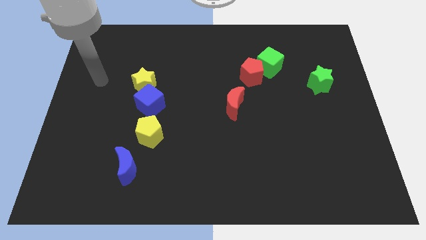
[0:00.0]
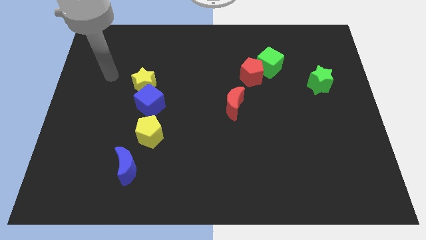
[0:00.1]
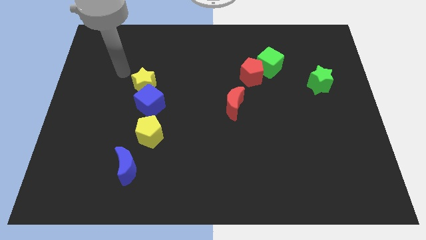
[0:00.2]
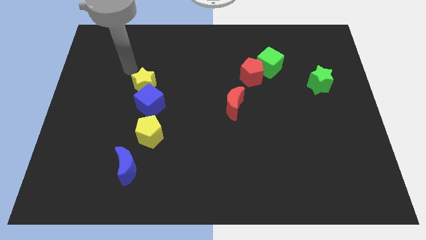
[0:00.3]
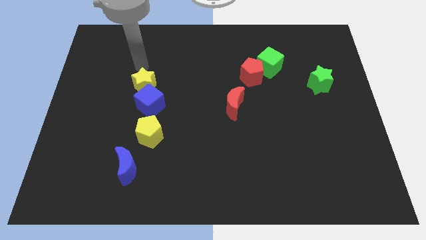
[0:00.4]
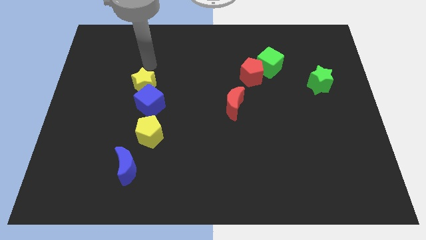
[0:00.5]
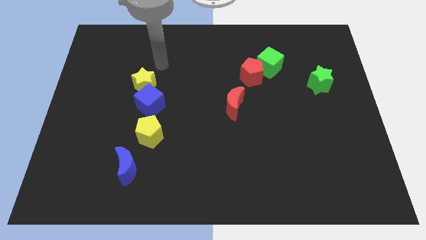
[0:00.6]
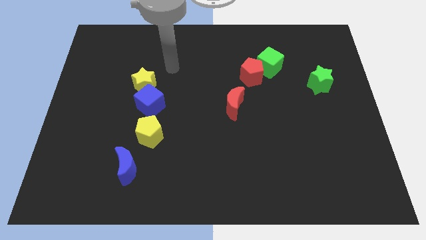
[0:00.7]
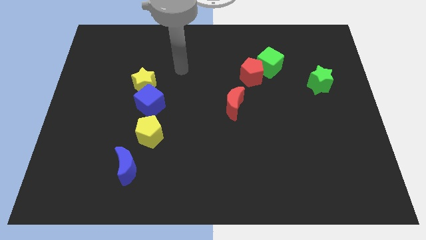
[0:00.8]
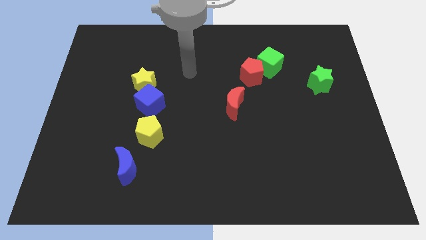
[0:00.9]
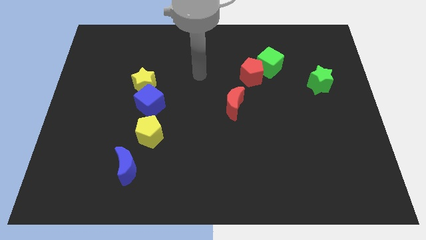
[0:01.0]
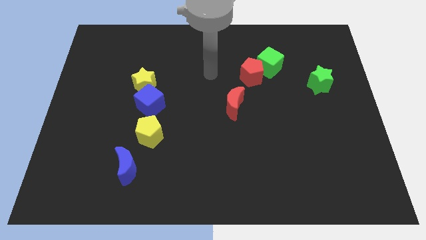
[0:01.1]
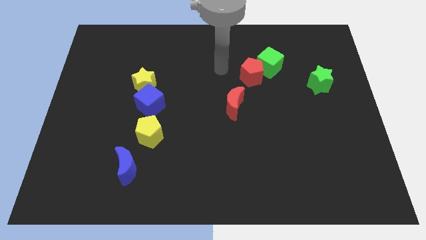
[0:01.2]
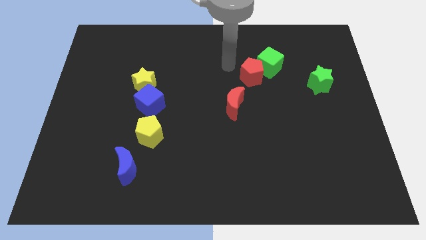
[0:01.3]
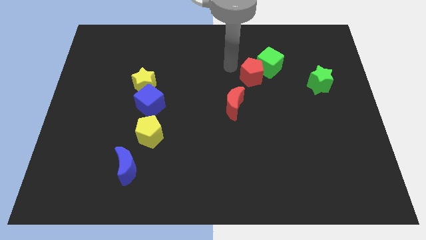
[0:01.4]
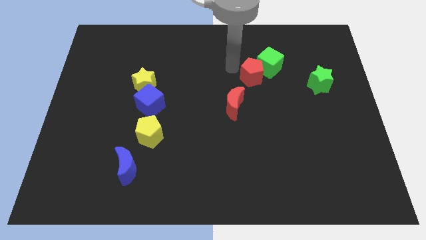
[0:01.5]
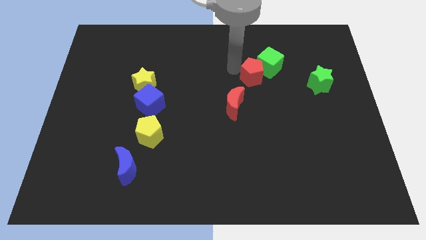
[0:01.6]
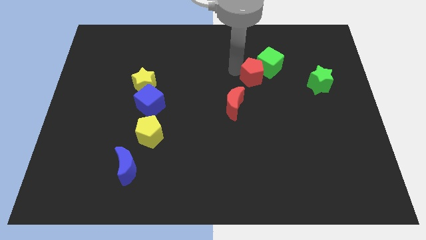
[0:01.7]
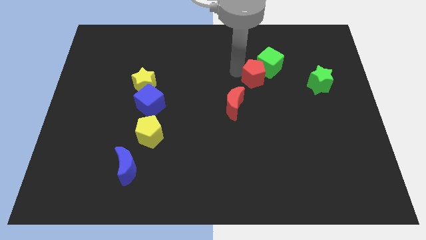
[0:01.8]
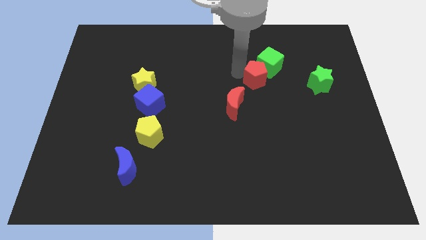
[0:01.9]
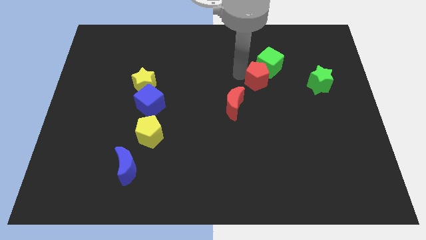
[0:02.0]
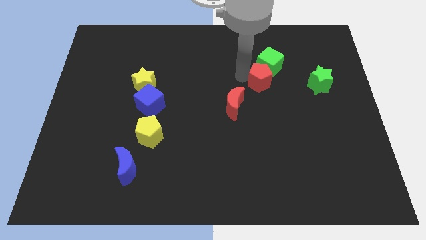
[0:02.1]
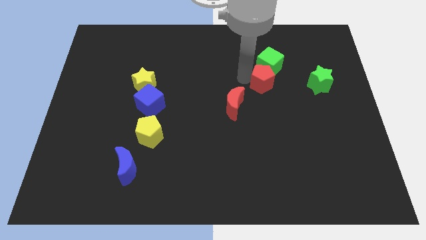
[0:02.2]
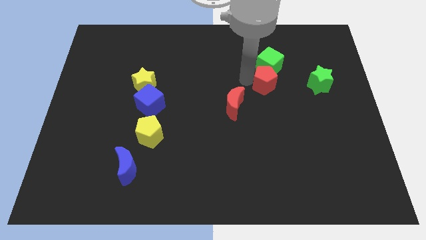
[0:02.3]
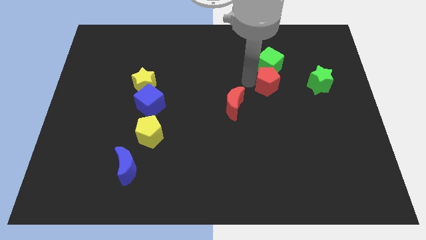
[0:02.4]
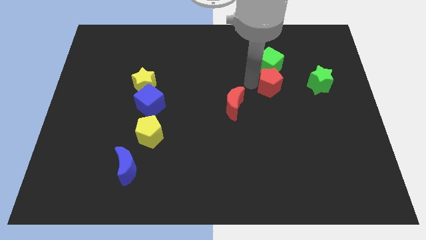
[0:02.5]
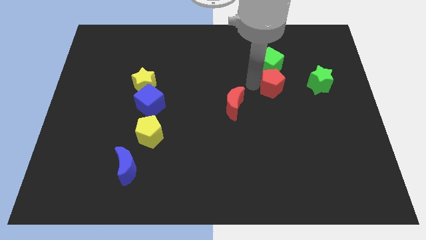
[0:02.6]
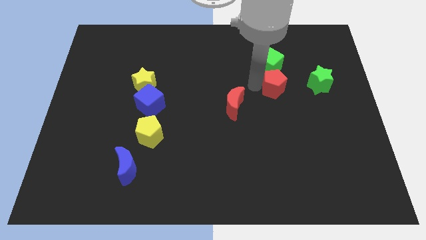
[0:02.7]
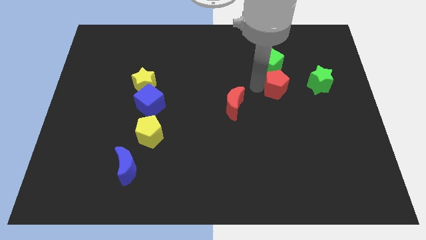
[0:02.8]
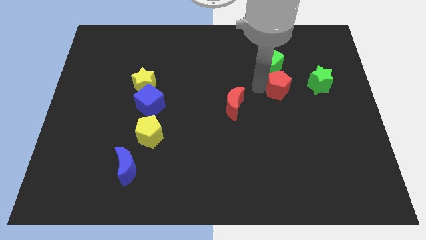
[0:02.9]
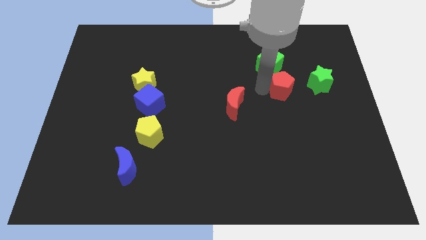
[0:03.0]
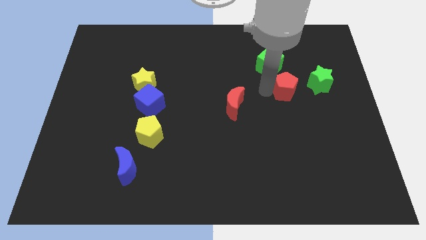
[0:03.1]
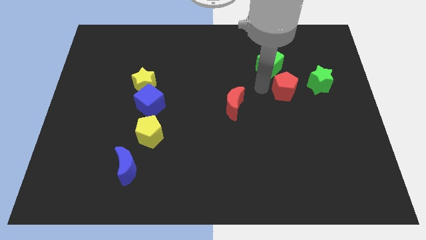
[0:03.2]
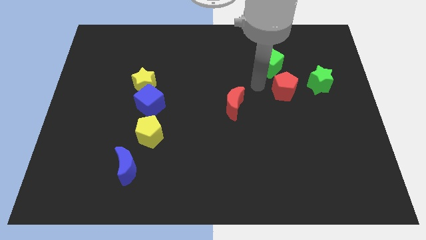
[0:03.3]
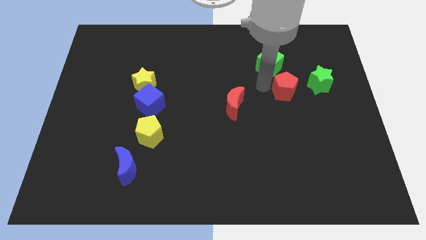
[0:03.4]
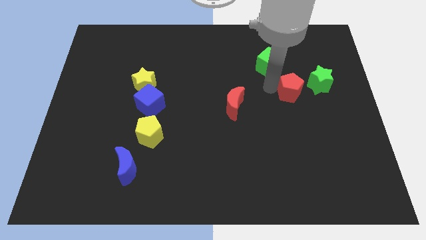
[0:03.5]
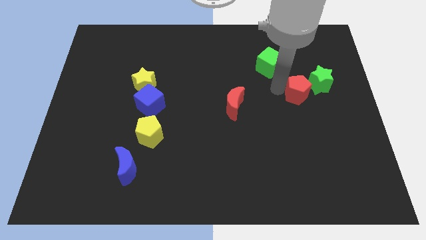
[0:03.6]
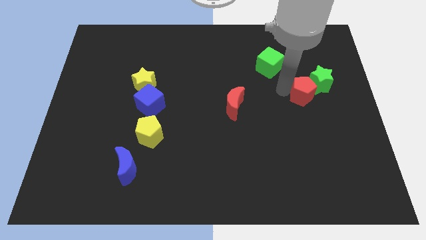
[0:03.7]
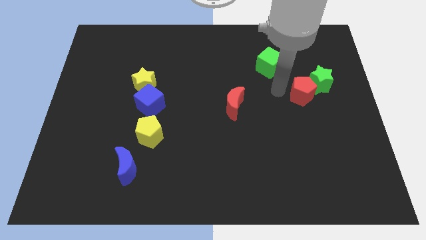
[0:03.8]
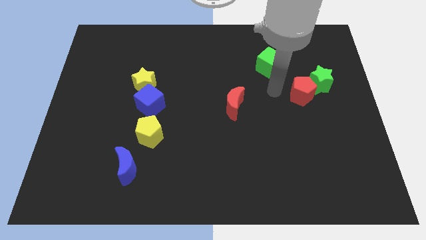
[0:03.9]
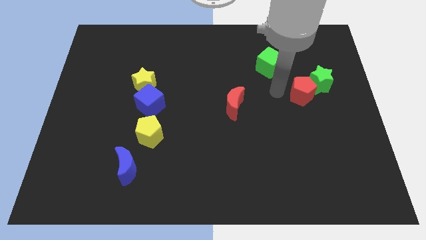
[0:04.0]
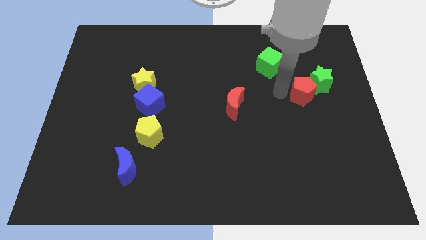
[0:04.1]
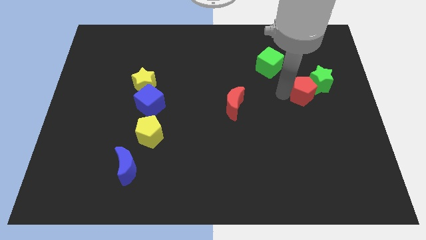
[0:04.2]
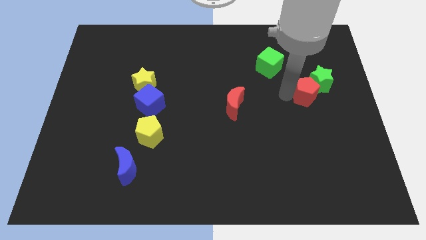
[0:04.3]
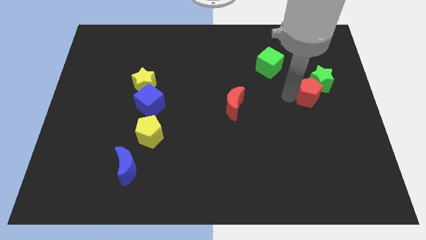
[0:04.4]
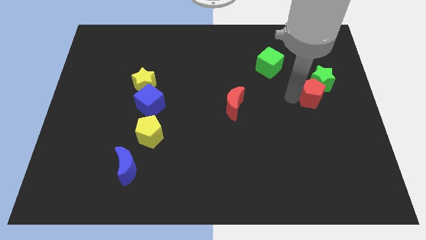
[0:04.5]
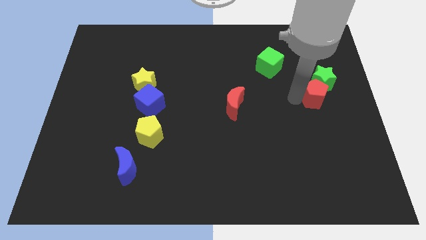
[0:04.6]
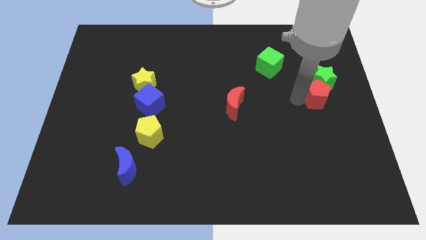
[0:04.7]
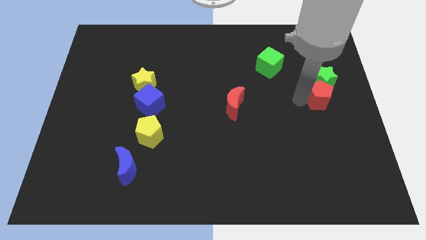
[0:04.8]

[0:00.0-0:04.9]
slide the red pentagon to the right side

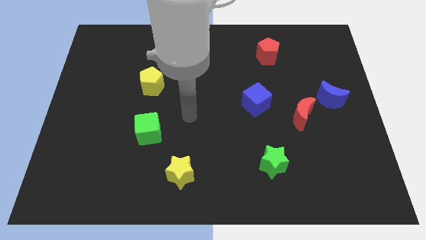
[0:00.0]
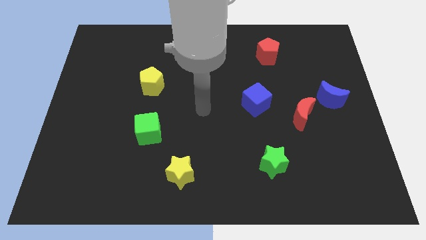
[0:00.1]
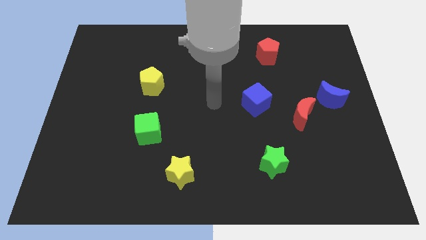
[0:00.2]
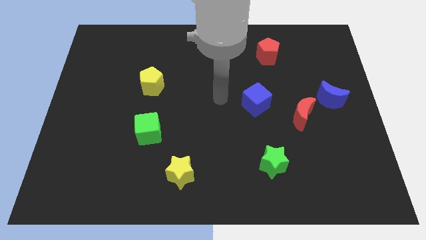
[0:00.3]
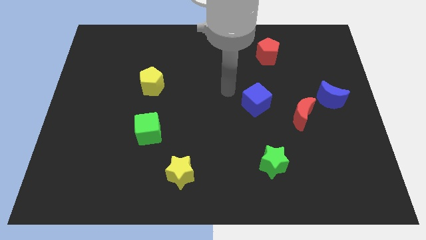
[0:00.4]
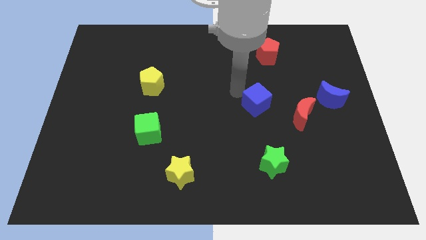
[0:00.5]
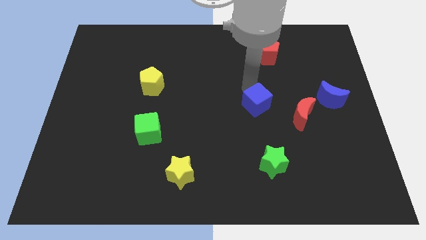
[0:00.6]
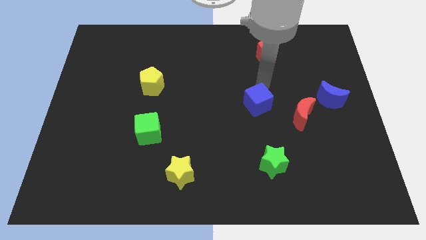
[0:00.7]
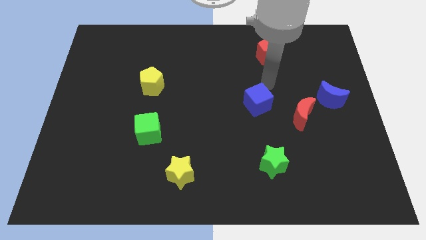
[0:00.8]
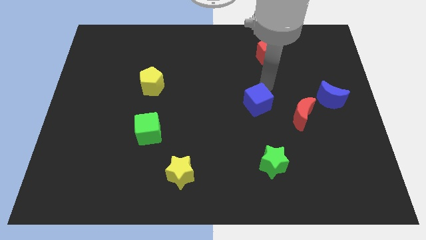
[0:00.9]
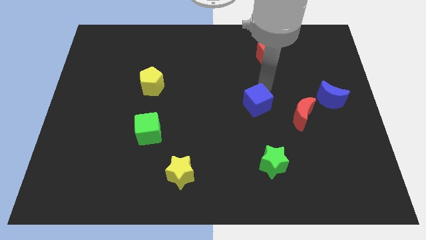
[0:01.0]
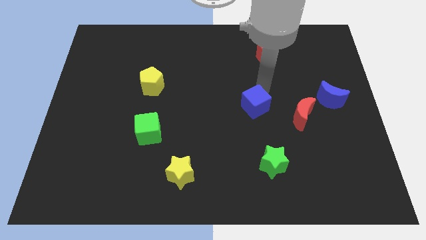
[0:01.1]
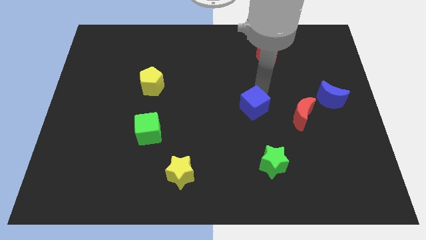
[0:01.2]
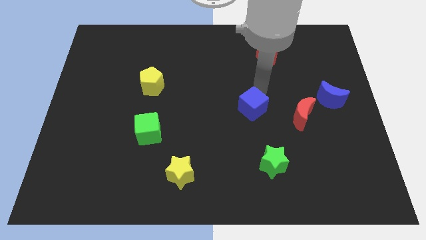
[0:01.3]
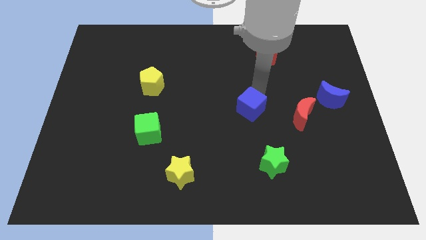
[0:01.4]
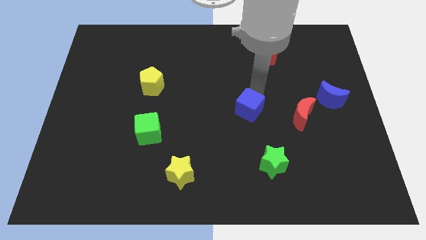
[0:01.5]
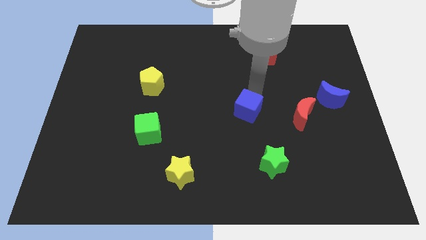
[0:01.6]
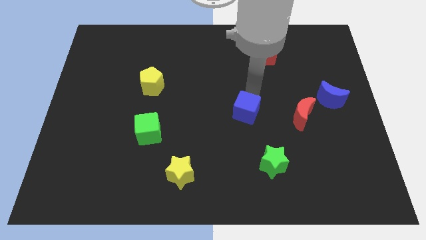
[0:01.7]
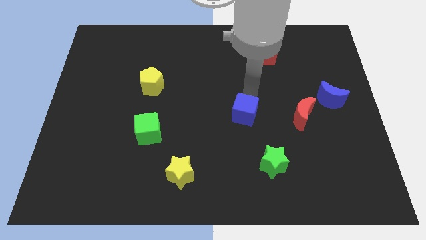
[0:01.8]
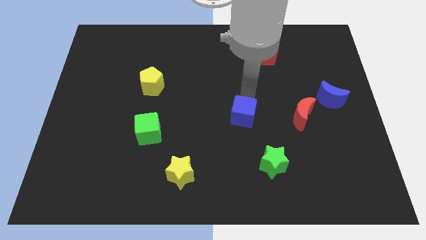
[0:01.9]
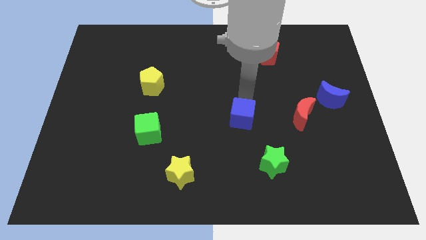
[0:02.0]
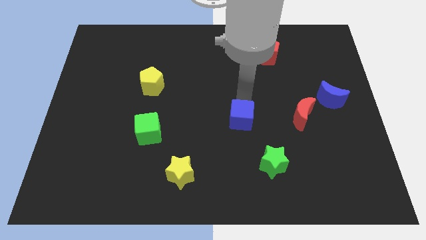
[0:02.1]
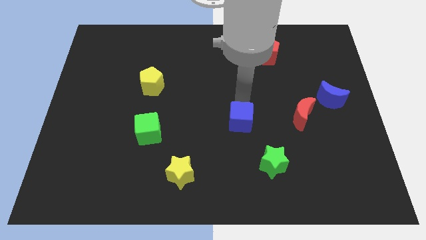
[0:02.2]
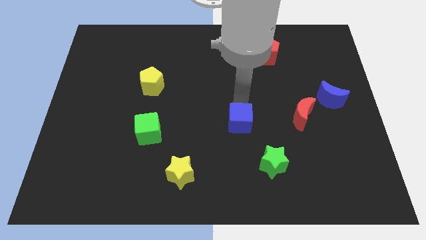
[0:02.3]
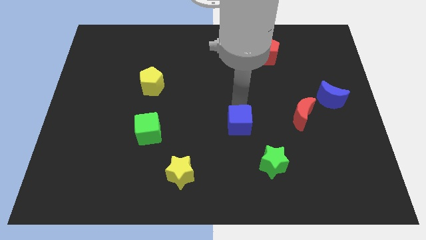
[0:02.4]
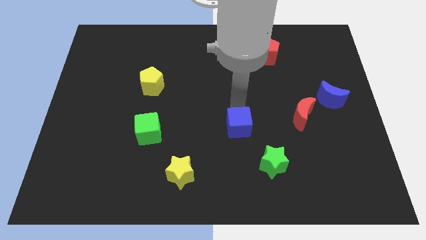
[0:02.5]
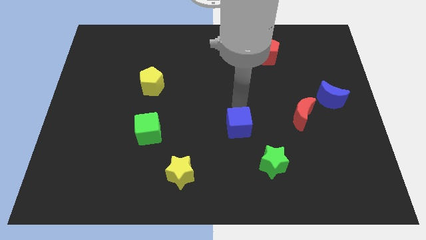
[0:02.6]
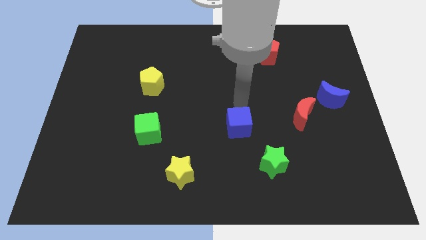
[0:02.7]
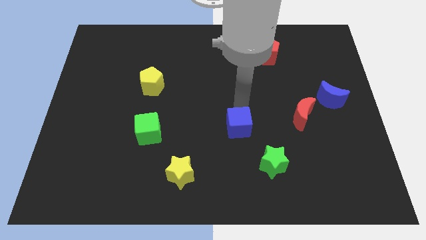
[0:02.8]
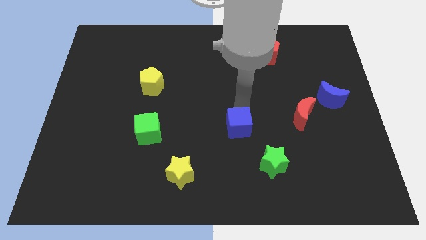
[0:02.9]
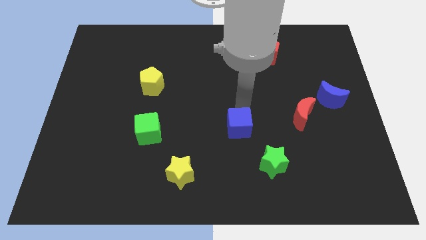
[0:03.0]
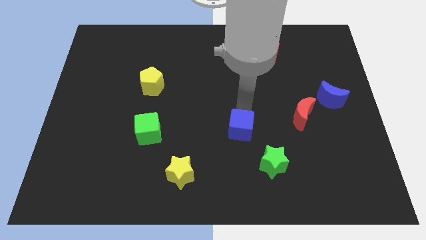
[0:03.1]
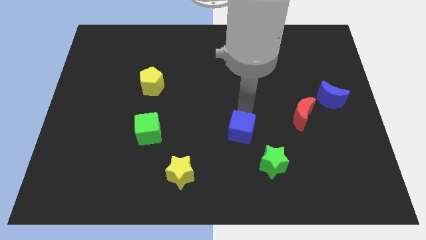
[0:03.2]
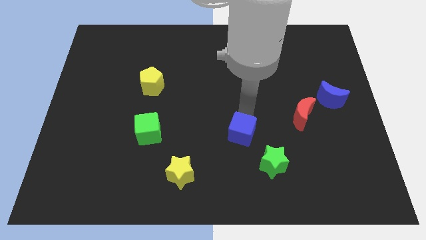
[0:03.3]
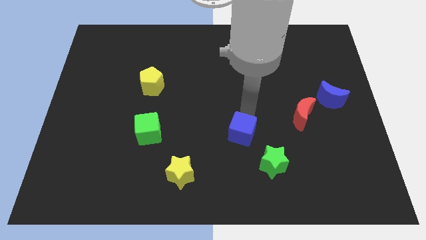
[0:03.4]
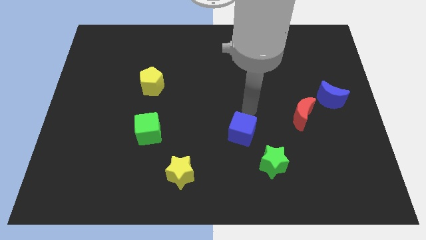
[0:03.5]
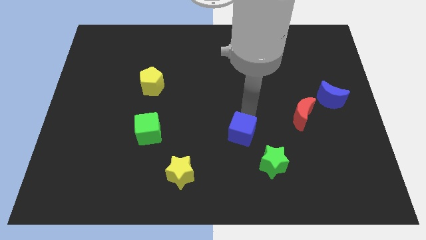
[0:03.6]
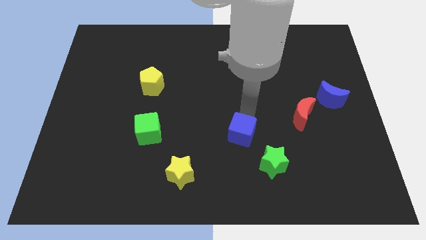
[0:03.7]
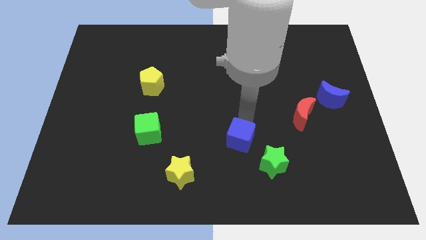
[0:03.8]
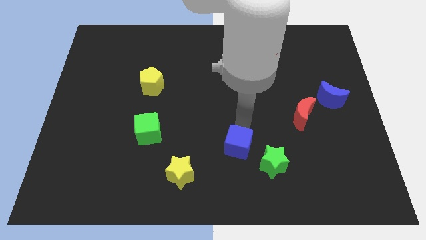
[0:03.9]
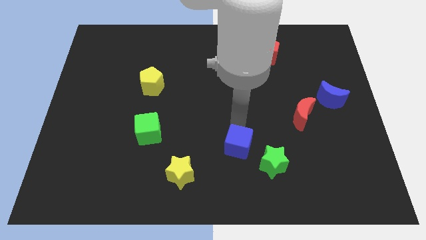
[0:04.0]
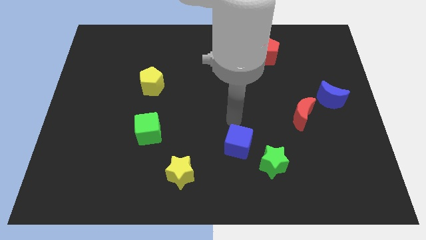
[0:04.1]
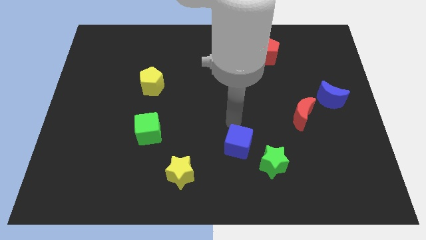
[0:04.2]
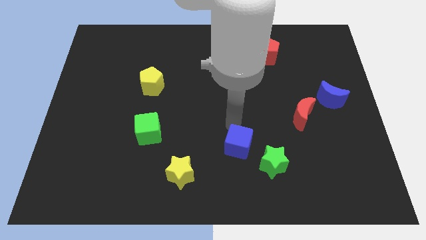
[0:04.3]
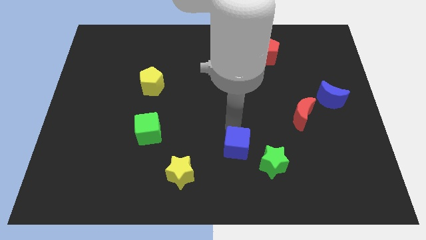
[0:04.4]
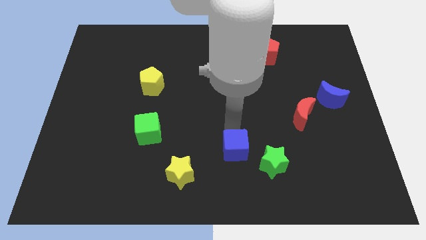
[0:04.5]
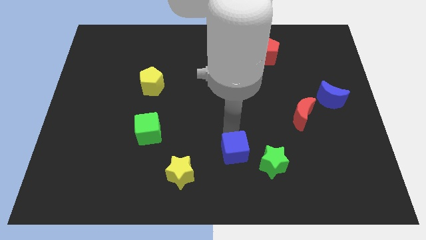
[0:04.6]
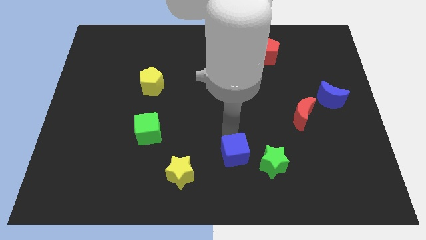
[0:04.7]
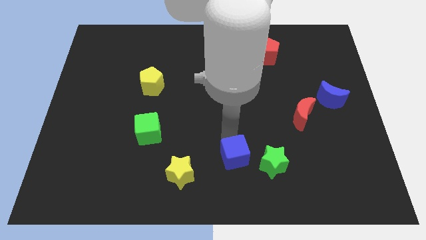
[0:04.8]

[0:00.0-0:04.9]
slide the blue cube to the bottom side
